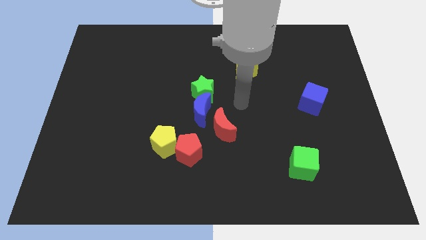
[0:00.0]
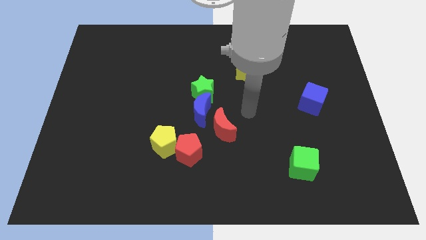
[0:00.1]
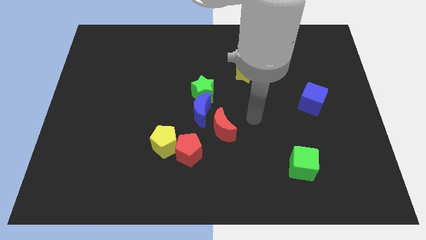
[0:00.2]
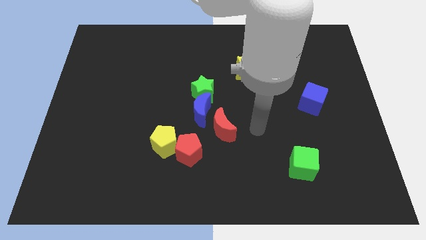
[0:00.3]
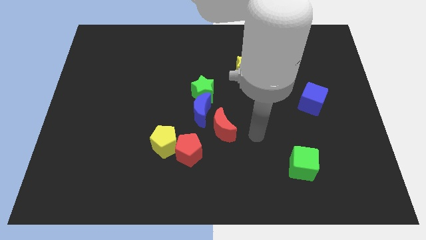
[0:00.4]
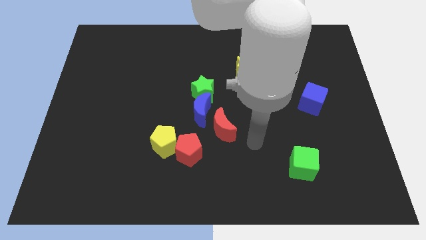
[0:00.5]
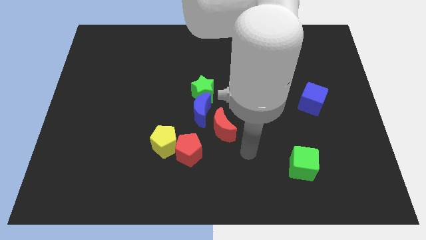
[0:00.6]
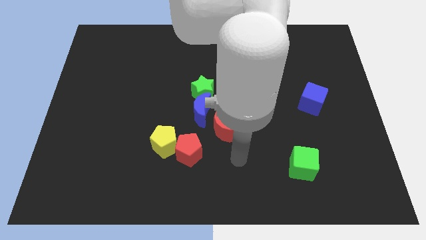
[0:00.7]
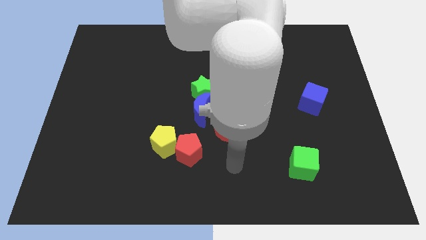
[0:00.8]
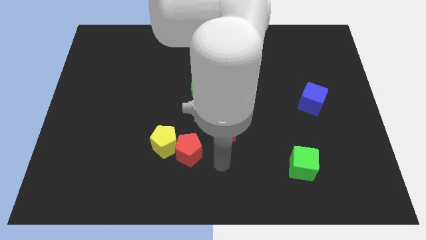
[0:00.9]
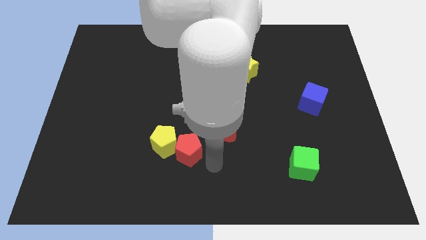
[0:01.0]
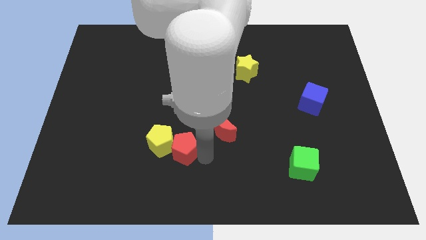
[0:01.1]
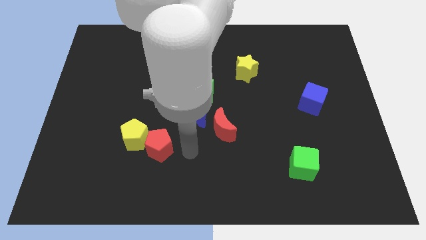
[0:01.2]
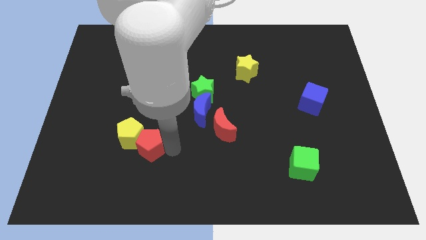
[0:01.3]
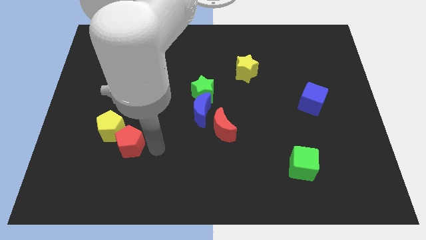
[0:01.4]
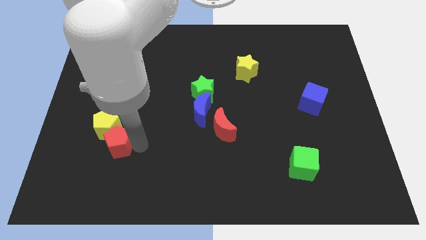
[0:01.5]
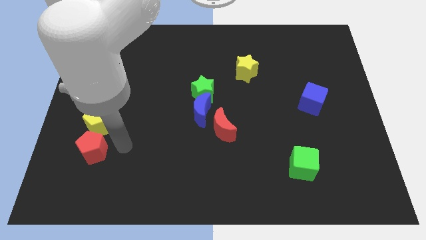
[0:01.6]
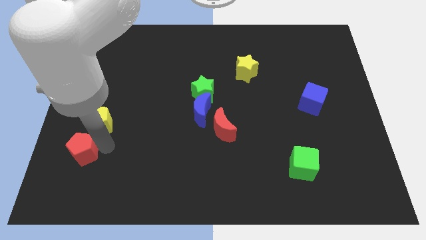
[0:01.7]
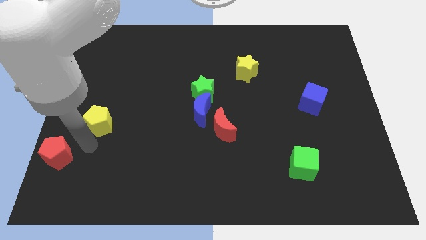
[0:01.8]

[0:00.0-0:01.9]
separate the yellow pentagon from the red pentagon

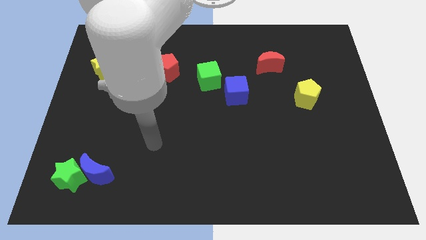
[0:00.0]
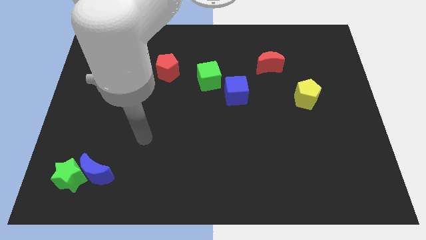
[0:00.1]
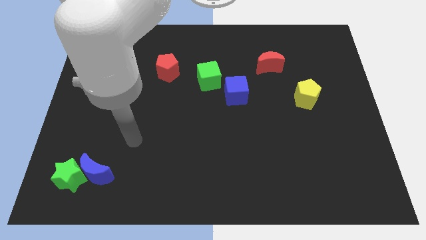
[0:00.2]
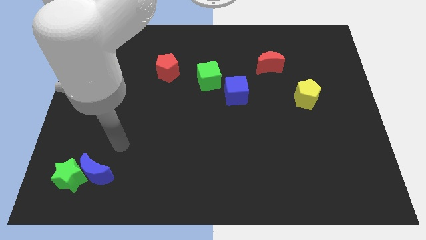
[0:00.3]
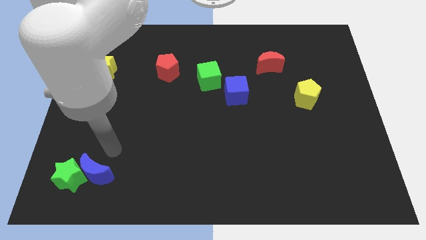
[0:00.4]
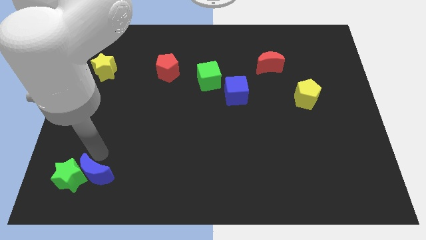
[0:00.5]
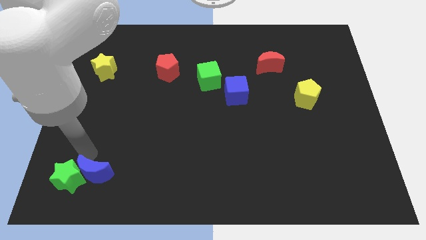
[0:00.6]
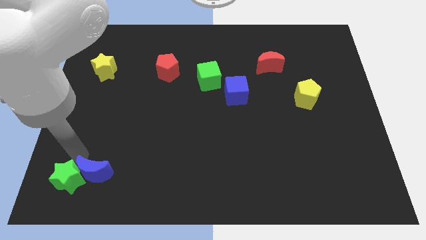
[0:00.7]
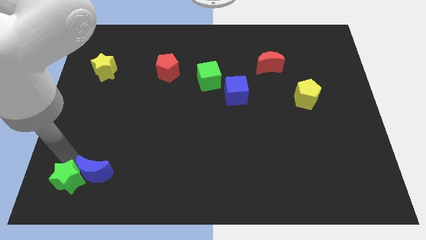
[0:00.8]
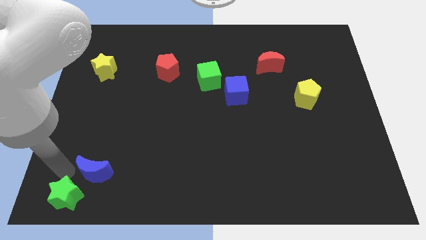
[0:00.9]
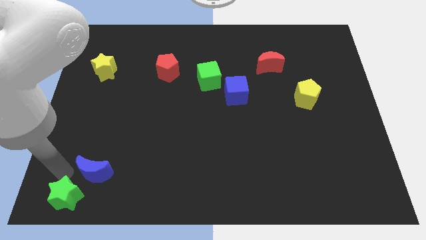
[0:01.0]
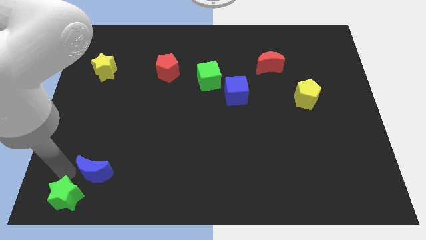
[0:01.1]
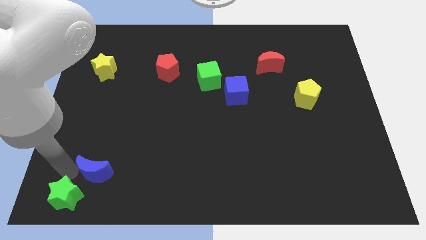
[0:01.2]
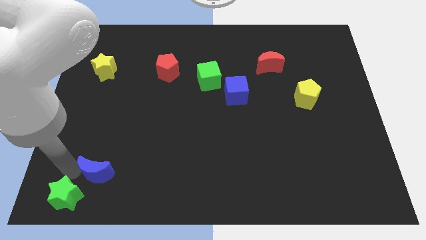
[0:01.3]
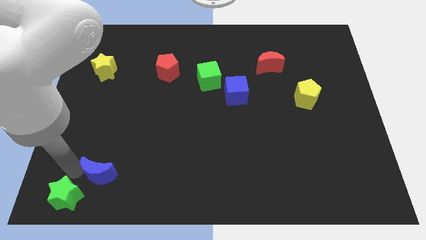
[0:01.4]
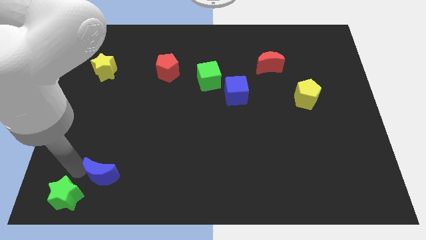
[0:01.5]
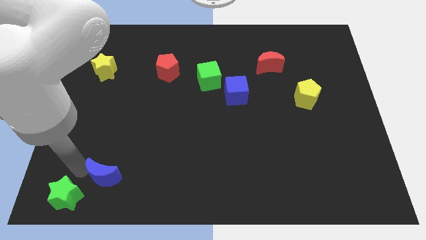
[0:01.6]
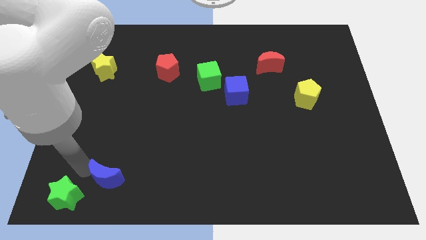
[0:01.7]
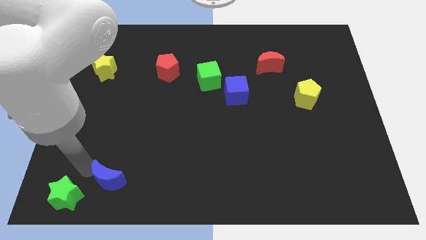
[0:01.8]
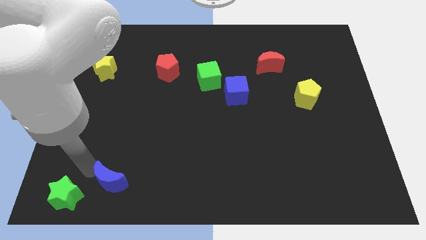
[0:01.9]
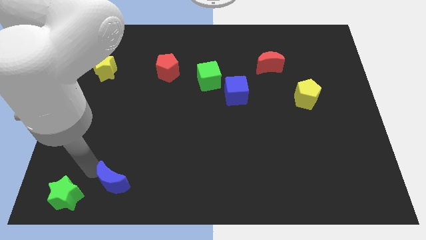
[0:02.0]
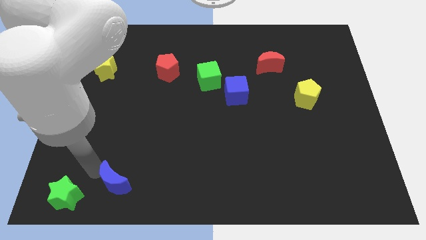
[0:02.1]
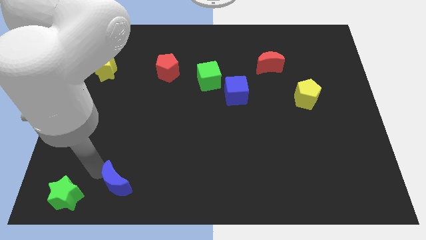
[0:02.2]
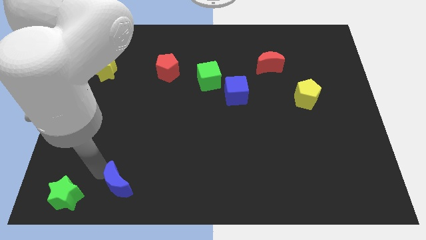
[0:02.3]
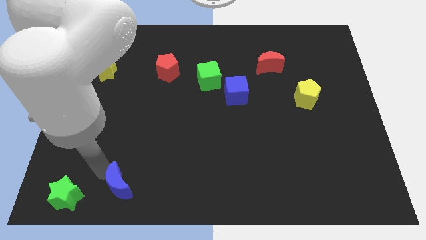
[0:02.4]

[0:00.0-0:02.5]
move the blue moon away from the green star

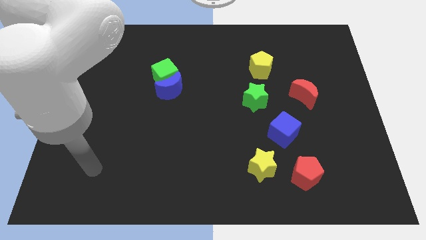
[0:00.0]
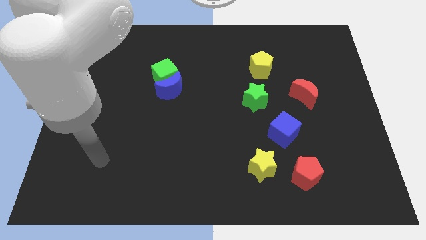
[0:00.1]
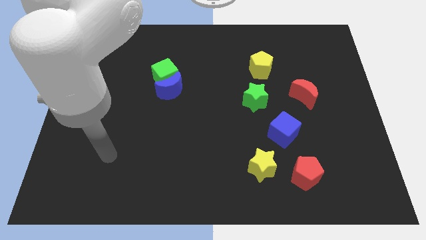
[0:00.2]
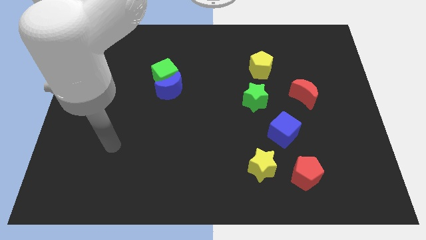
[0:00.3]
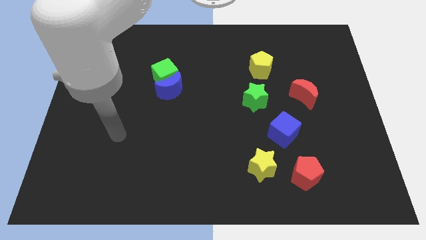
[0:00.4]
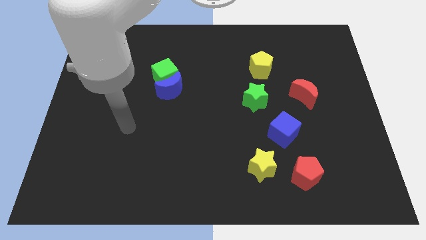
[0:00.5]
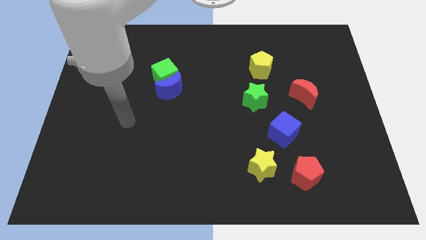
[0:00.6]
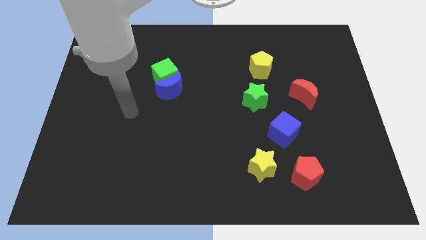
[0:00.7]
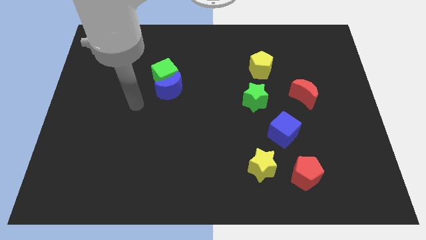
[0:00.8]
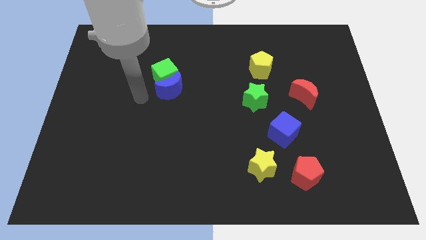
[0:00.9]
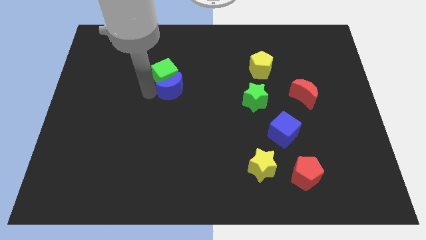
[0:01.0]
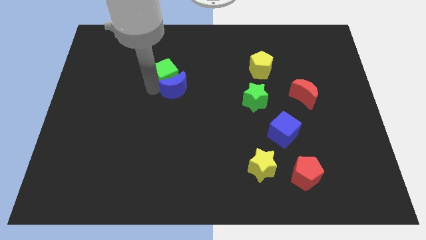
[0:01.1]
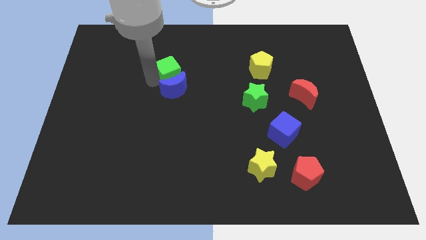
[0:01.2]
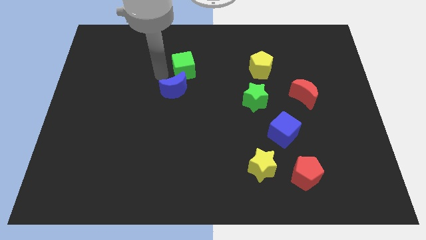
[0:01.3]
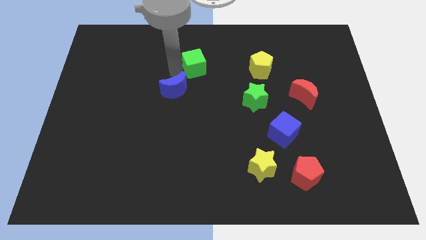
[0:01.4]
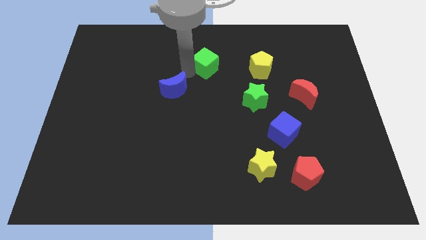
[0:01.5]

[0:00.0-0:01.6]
separate the blue moon from the green cube

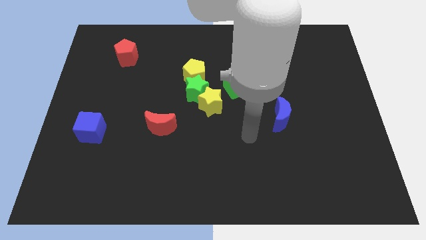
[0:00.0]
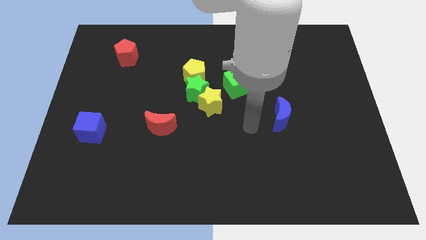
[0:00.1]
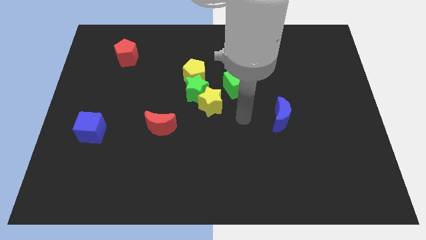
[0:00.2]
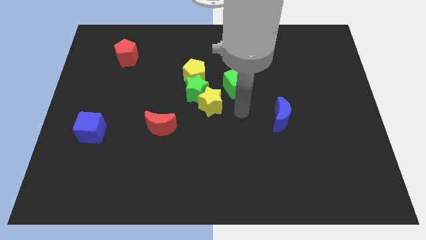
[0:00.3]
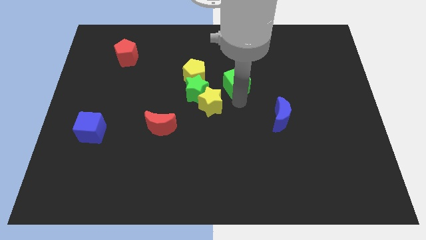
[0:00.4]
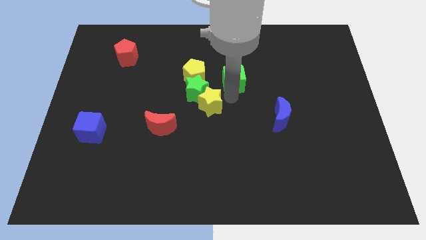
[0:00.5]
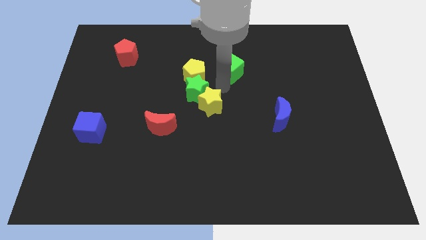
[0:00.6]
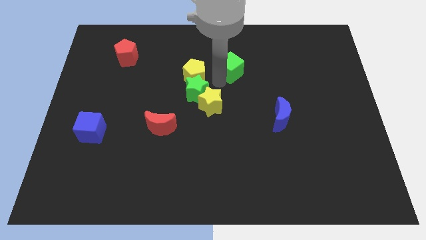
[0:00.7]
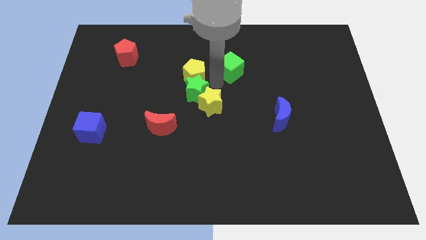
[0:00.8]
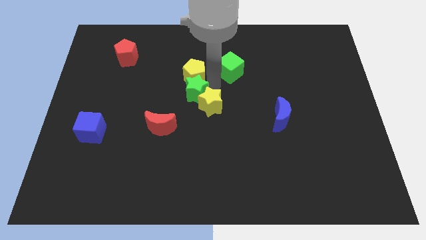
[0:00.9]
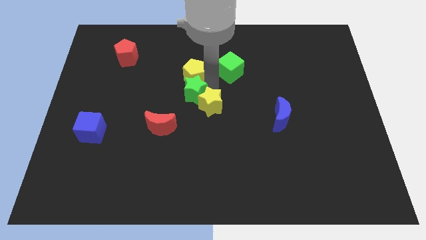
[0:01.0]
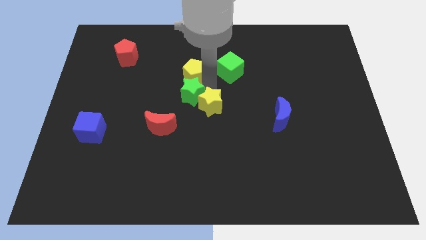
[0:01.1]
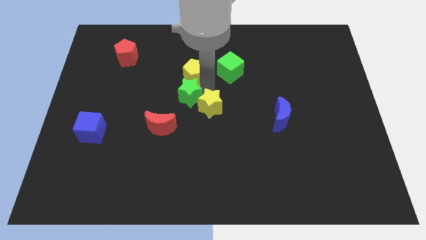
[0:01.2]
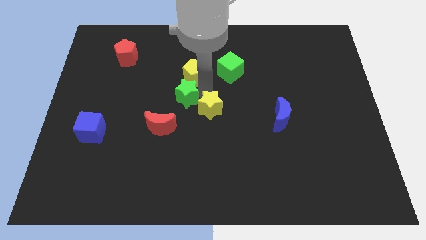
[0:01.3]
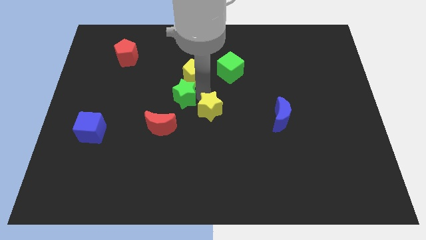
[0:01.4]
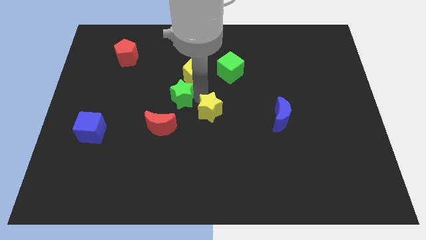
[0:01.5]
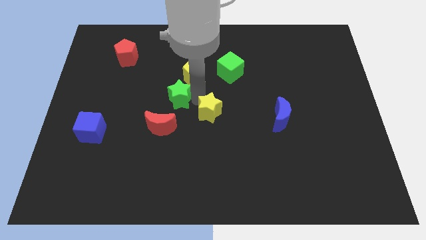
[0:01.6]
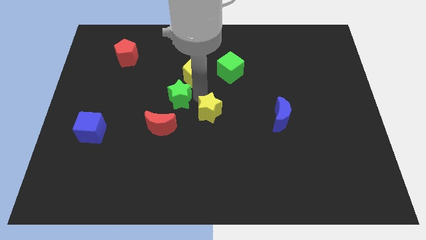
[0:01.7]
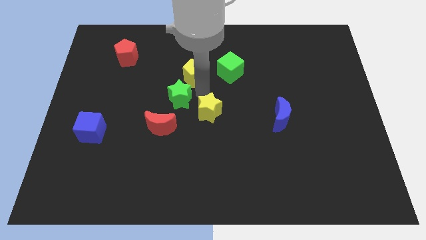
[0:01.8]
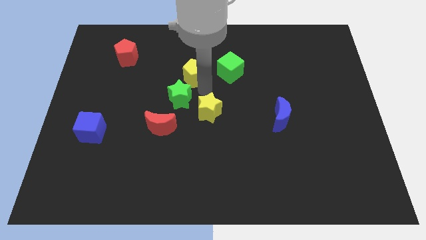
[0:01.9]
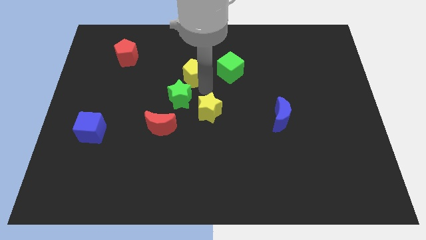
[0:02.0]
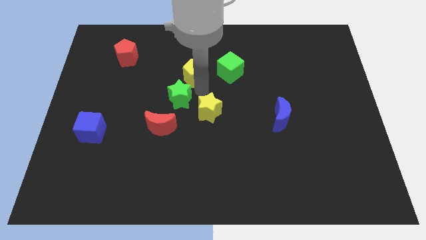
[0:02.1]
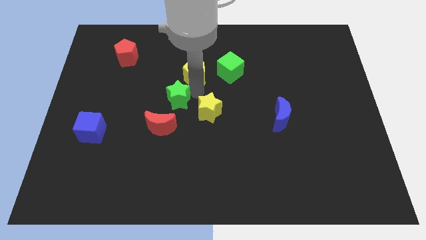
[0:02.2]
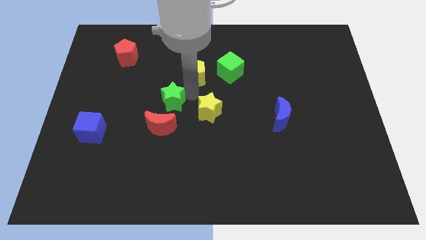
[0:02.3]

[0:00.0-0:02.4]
separate the green star from the yellow pentagon, yellow star, and green cube

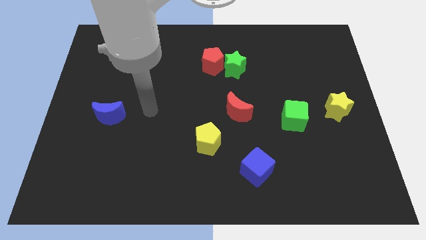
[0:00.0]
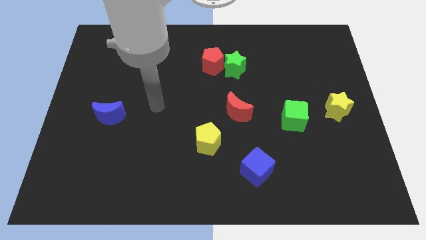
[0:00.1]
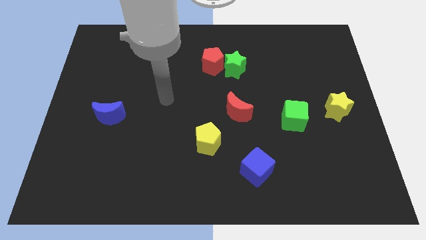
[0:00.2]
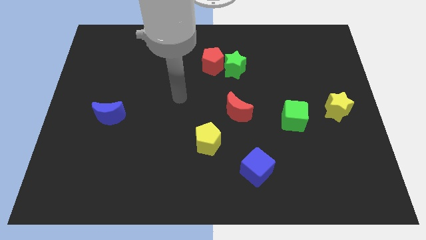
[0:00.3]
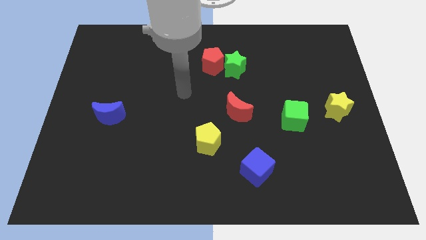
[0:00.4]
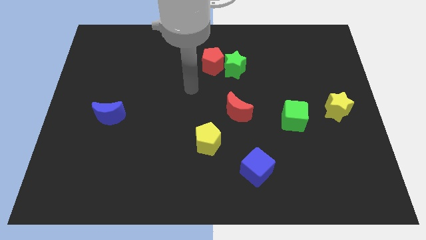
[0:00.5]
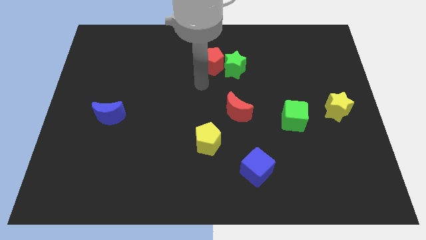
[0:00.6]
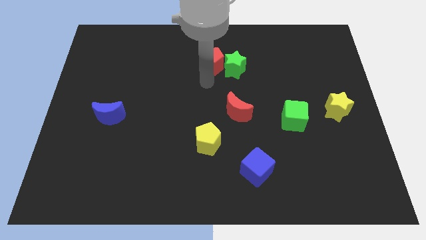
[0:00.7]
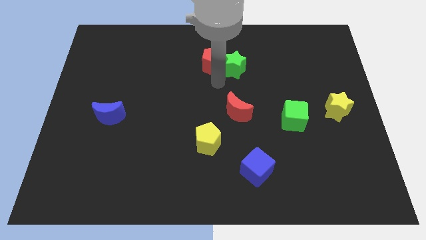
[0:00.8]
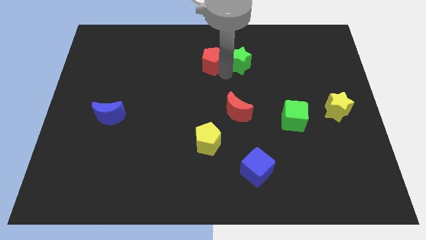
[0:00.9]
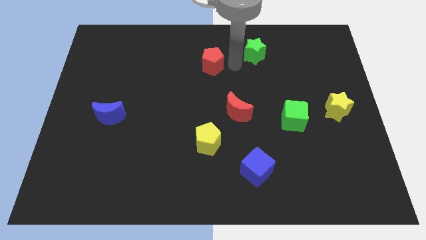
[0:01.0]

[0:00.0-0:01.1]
move the red pentagon away from the green star
